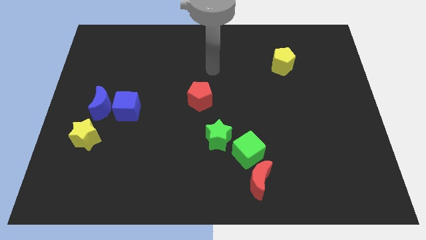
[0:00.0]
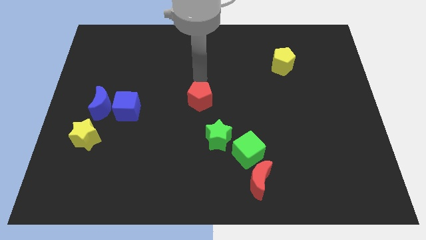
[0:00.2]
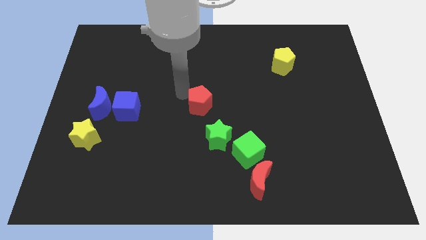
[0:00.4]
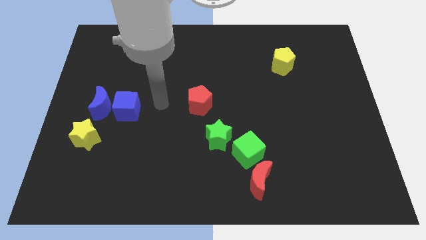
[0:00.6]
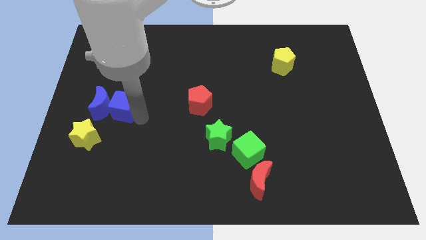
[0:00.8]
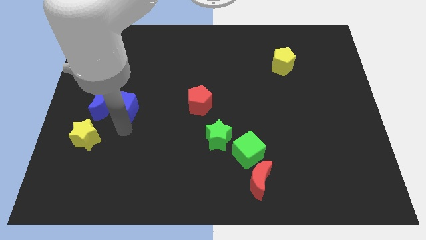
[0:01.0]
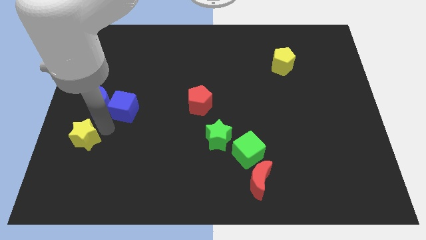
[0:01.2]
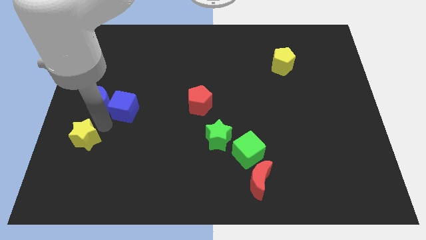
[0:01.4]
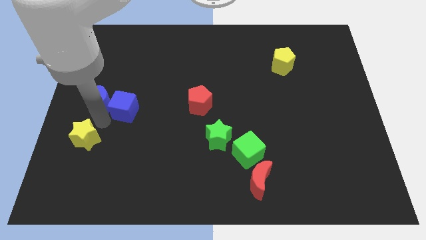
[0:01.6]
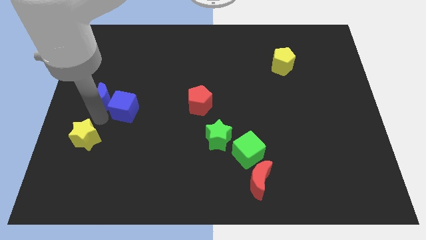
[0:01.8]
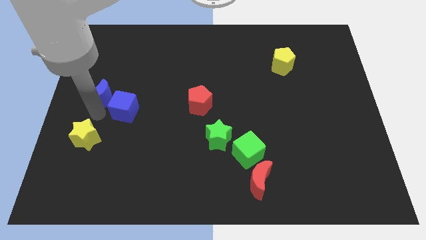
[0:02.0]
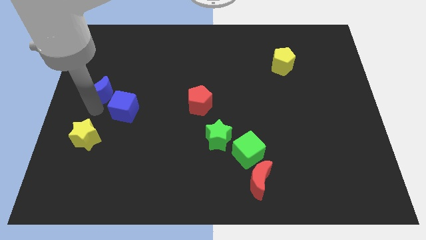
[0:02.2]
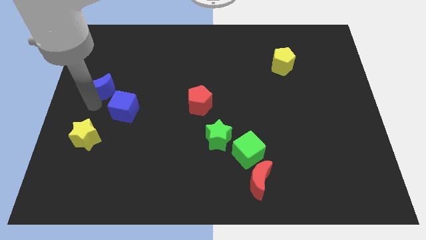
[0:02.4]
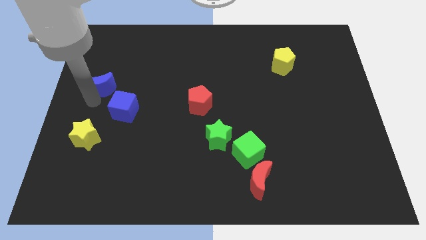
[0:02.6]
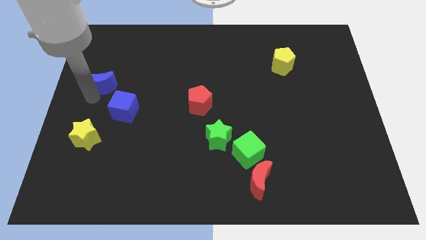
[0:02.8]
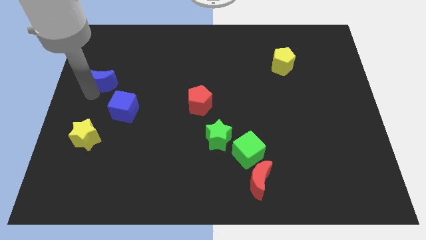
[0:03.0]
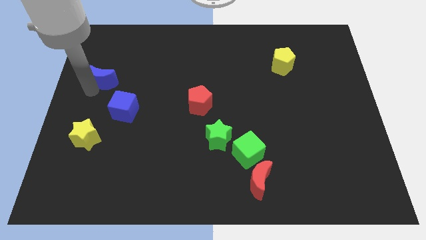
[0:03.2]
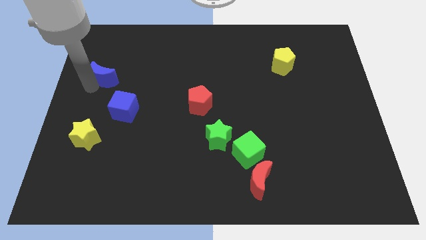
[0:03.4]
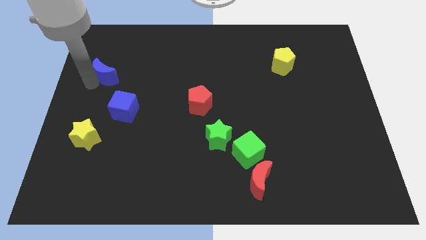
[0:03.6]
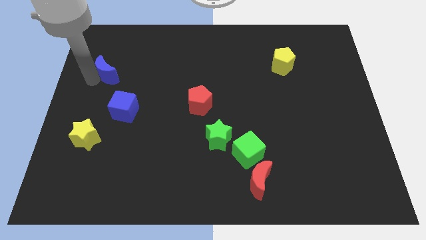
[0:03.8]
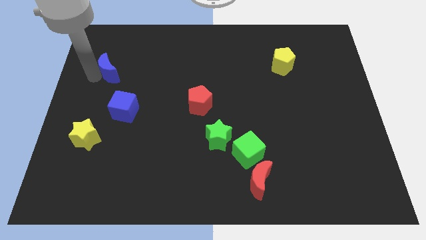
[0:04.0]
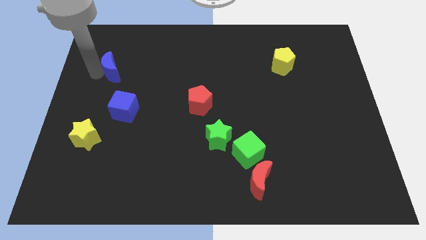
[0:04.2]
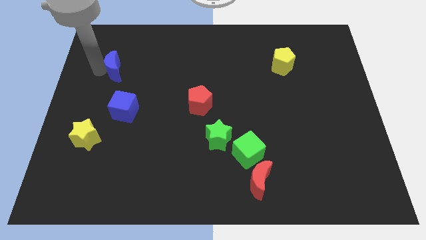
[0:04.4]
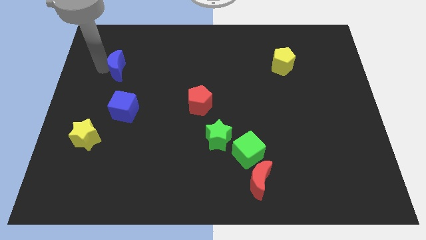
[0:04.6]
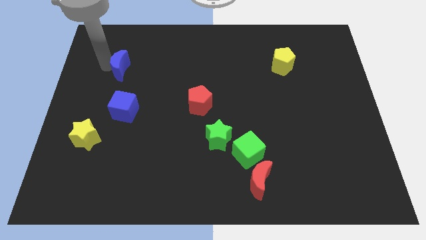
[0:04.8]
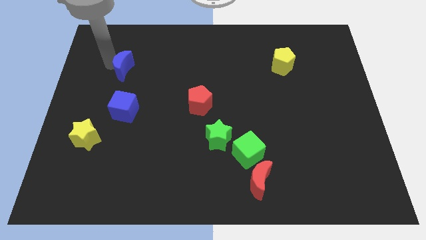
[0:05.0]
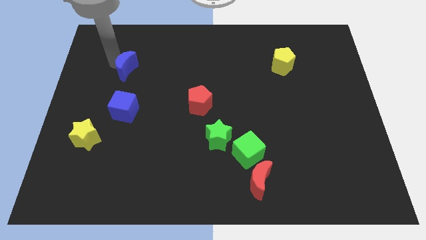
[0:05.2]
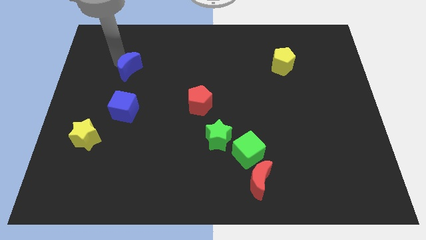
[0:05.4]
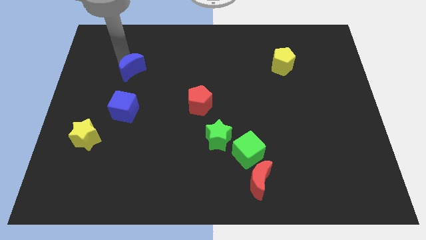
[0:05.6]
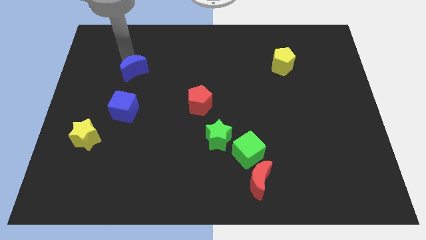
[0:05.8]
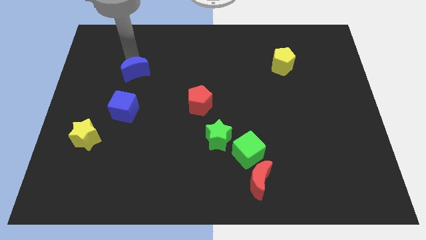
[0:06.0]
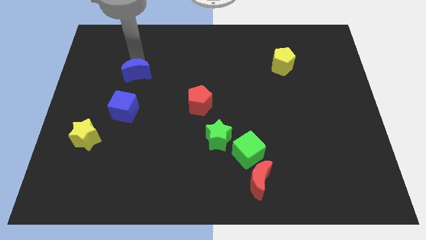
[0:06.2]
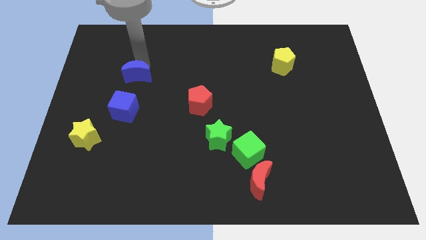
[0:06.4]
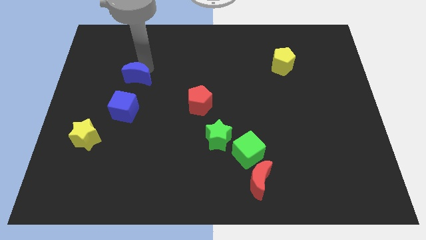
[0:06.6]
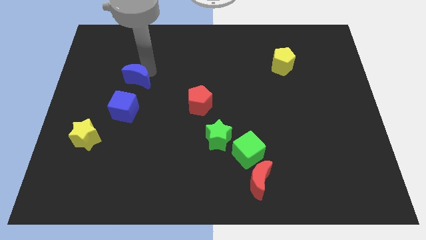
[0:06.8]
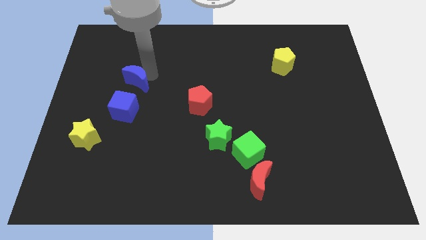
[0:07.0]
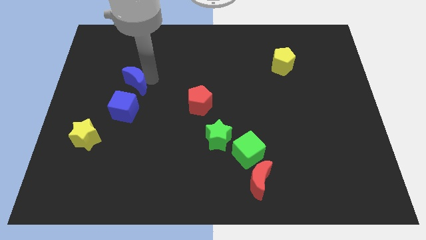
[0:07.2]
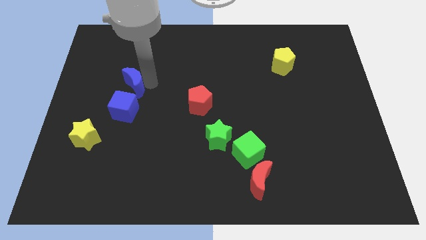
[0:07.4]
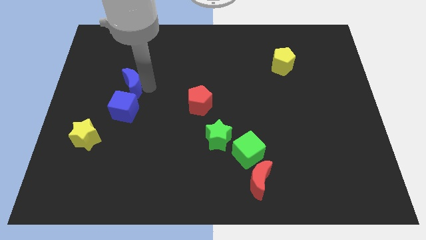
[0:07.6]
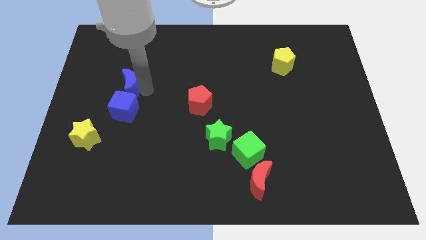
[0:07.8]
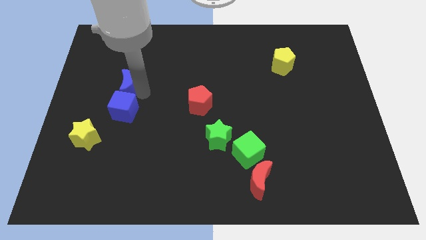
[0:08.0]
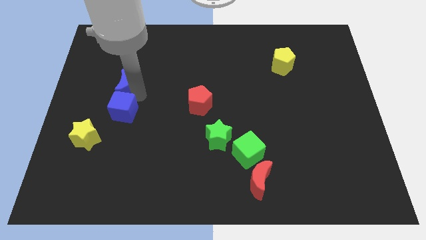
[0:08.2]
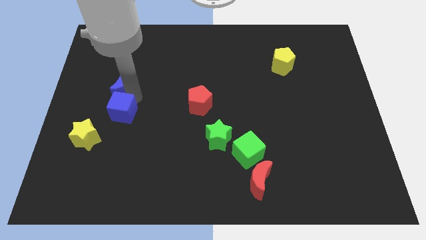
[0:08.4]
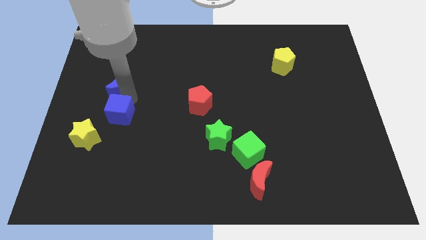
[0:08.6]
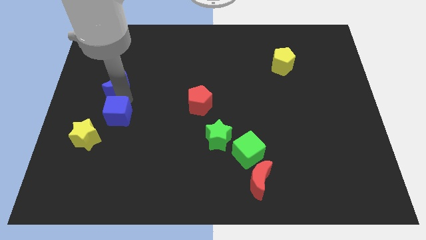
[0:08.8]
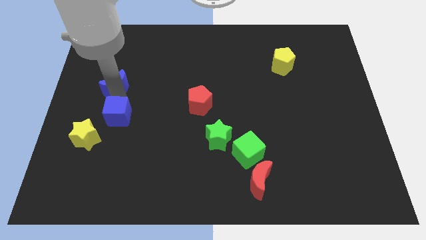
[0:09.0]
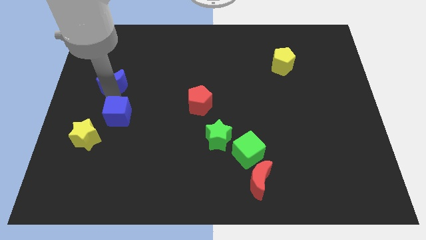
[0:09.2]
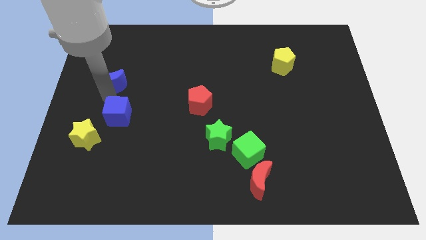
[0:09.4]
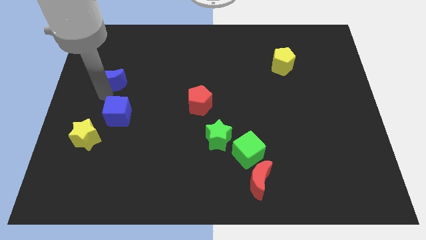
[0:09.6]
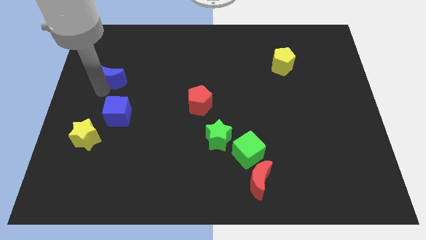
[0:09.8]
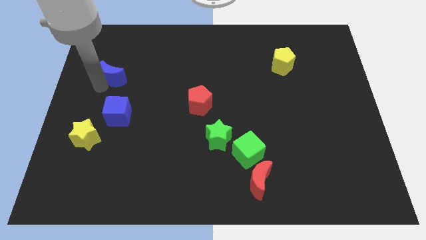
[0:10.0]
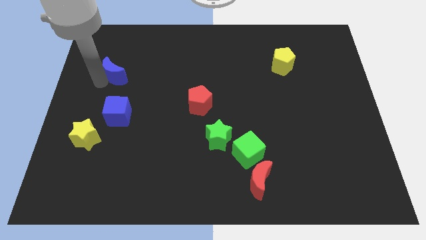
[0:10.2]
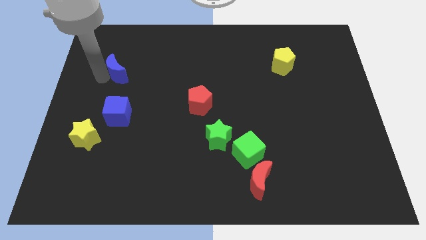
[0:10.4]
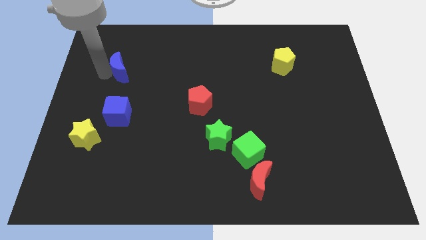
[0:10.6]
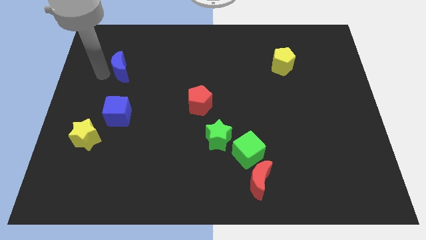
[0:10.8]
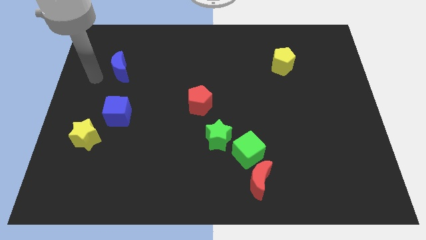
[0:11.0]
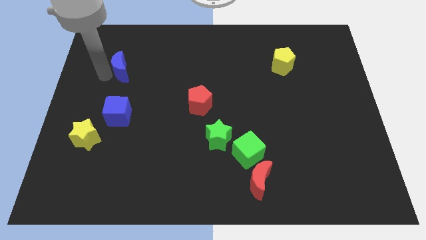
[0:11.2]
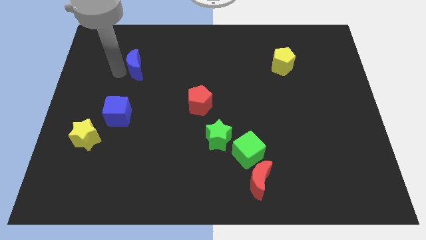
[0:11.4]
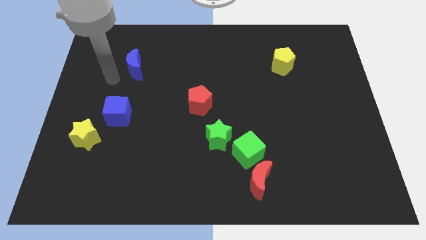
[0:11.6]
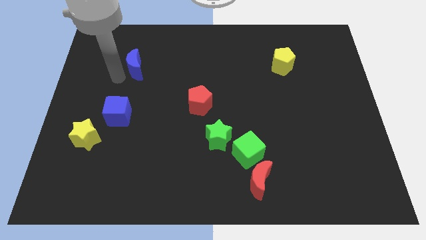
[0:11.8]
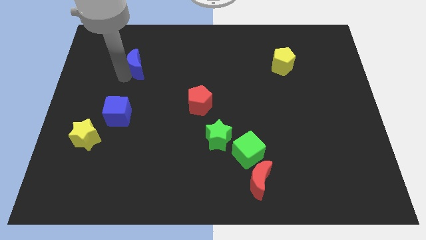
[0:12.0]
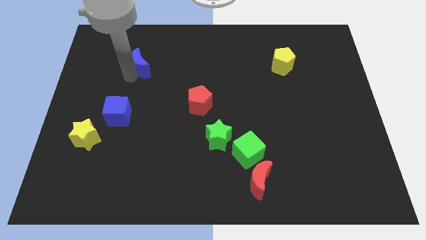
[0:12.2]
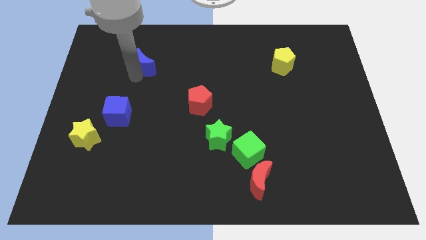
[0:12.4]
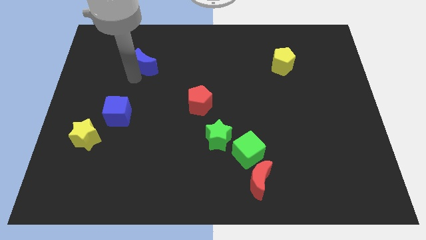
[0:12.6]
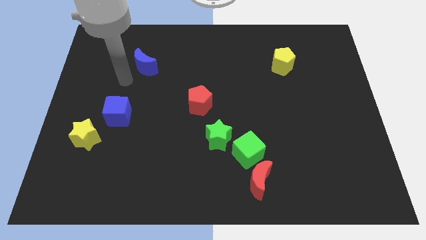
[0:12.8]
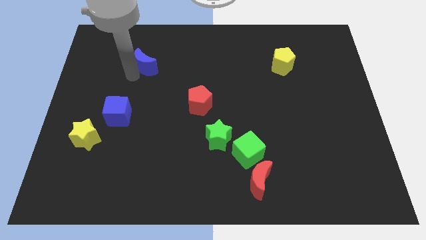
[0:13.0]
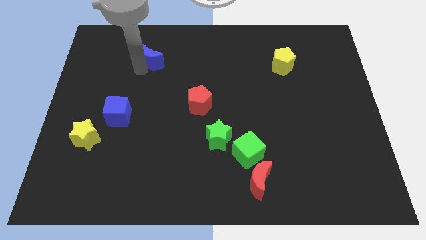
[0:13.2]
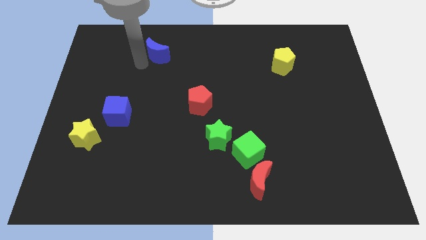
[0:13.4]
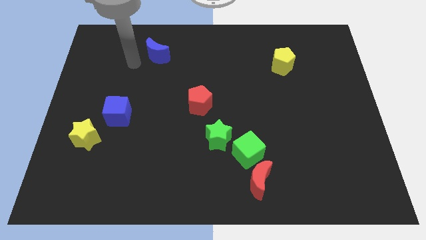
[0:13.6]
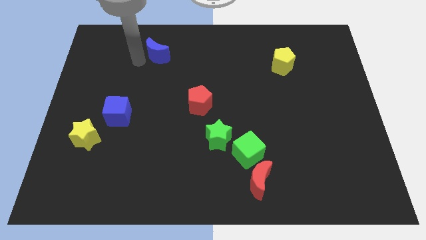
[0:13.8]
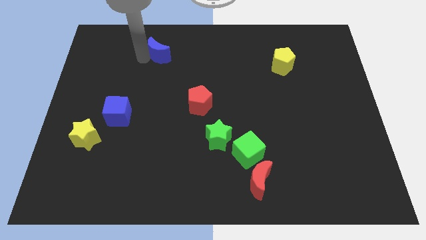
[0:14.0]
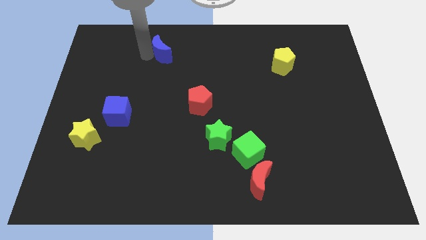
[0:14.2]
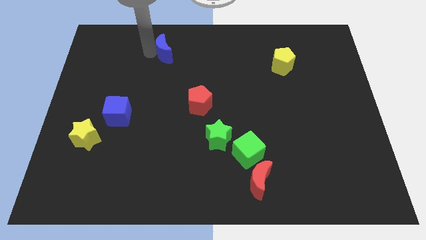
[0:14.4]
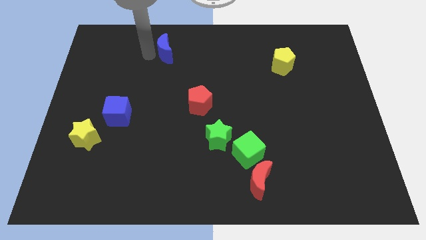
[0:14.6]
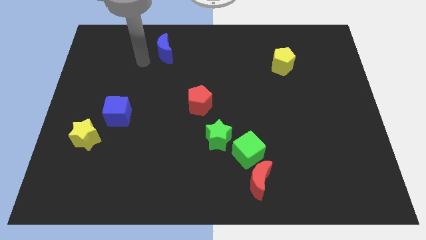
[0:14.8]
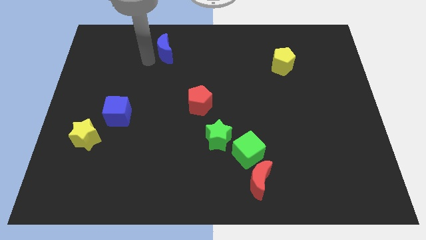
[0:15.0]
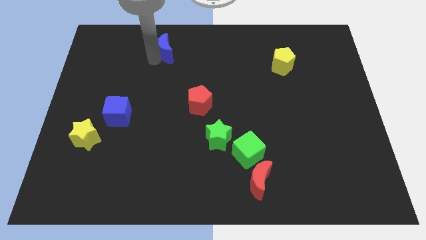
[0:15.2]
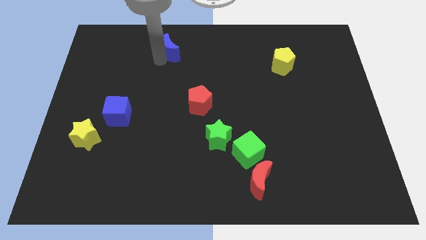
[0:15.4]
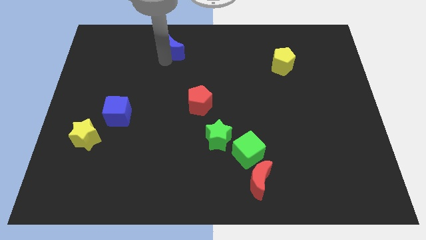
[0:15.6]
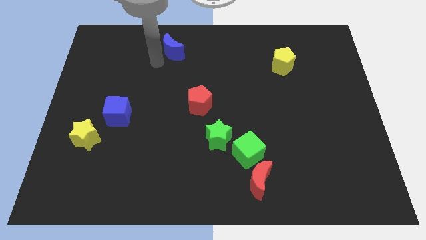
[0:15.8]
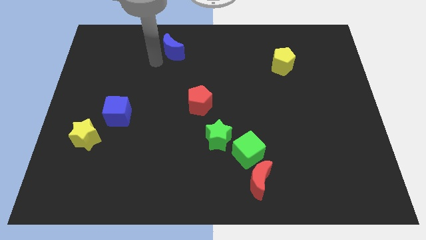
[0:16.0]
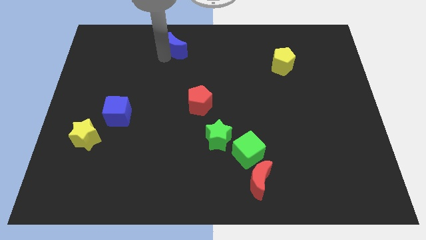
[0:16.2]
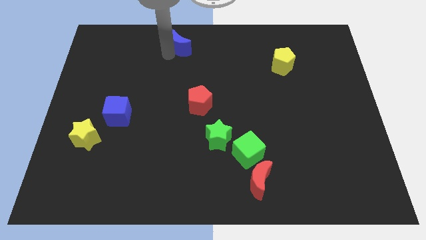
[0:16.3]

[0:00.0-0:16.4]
put the blue moon to the top side
